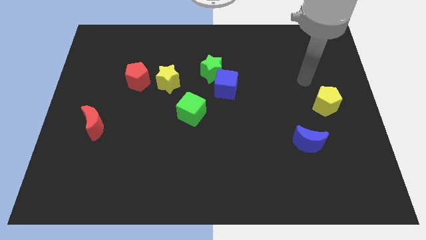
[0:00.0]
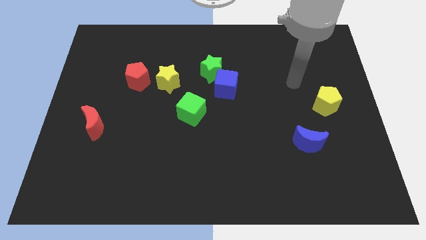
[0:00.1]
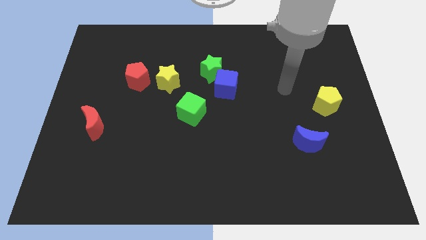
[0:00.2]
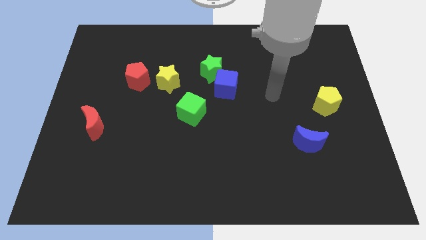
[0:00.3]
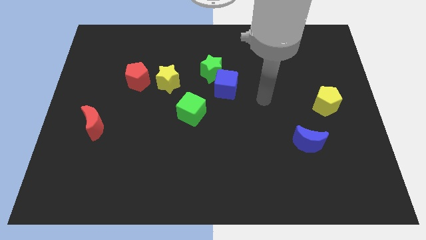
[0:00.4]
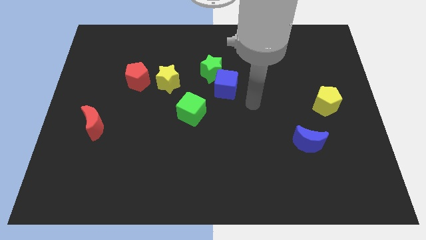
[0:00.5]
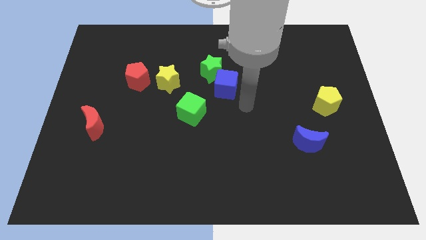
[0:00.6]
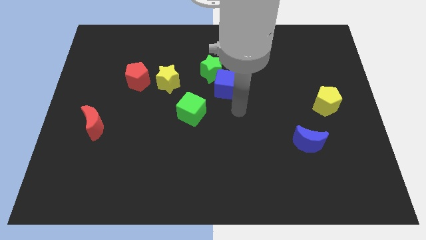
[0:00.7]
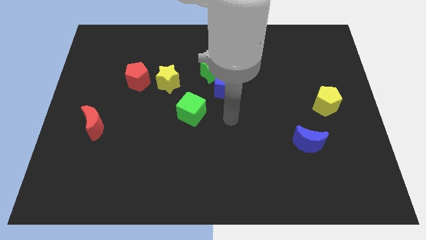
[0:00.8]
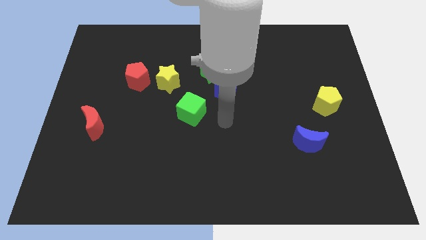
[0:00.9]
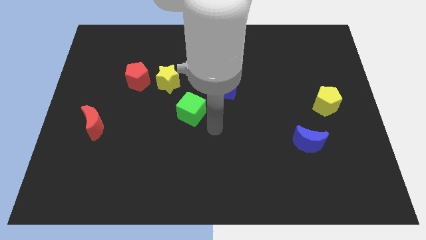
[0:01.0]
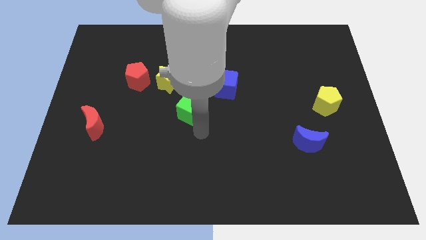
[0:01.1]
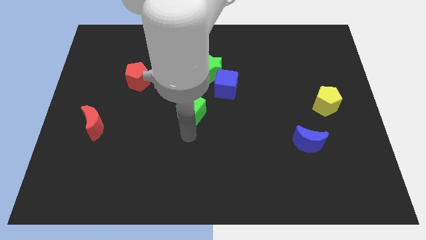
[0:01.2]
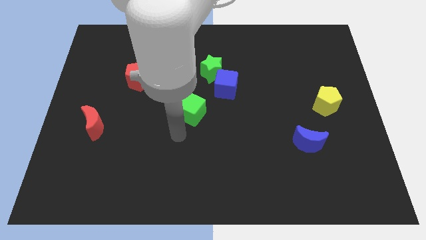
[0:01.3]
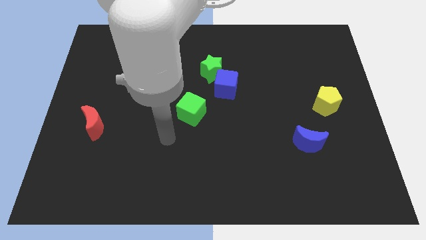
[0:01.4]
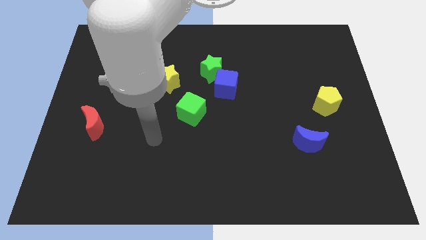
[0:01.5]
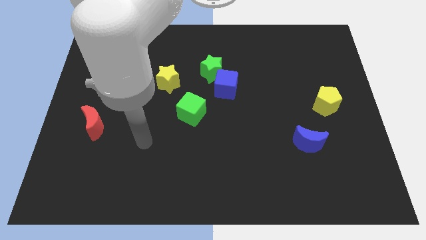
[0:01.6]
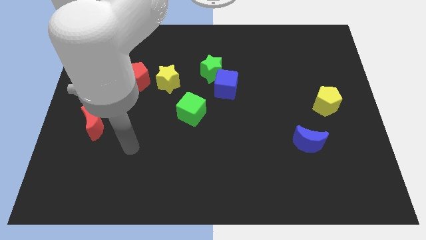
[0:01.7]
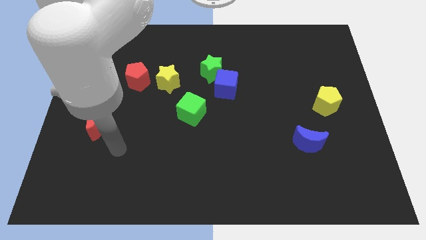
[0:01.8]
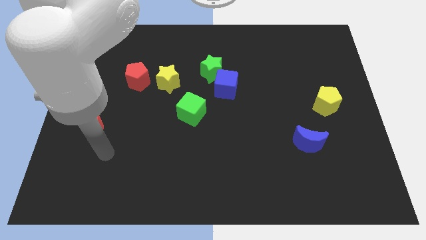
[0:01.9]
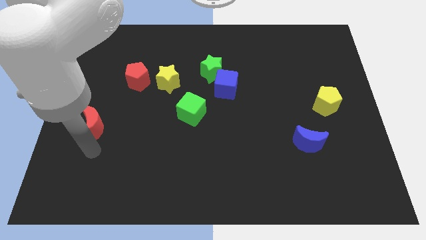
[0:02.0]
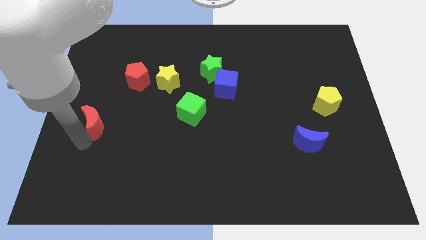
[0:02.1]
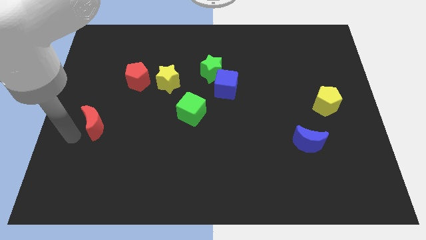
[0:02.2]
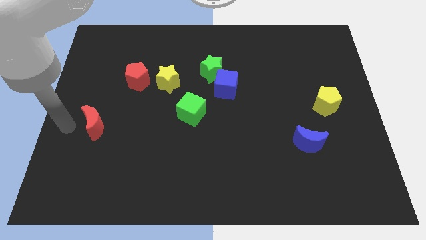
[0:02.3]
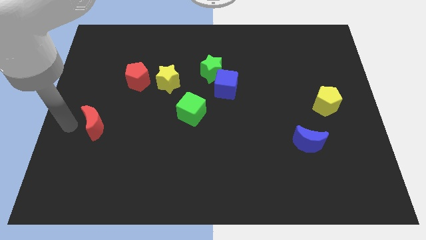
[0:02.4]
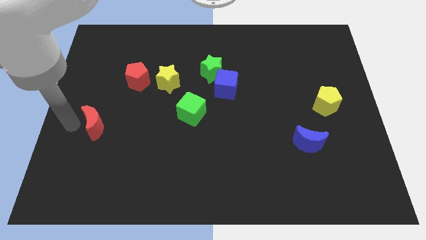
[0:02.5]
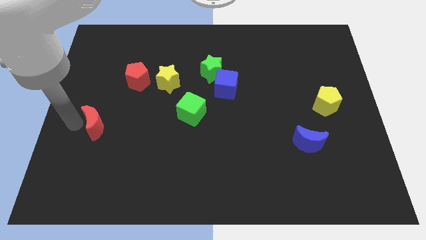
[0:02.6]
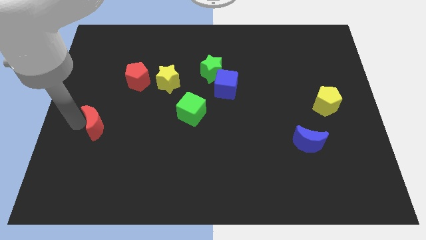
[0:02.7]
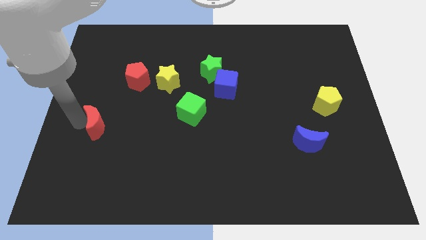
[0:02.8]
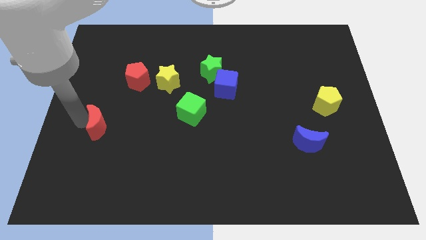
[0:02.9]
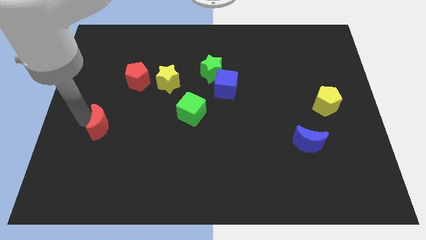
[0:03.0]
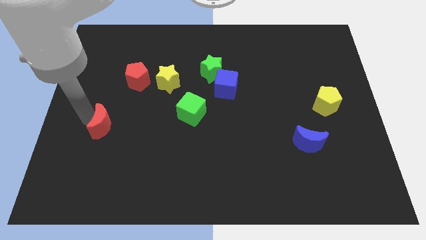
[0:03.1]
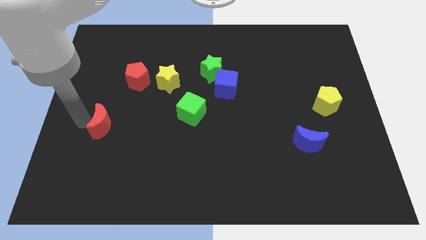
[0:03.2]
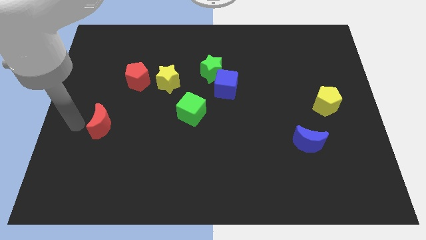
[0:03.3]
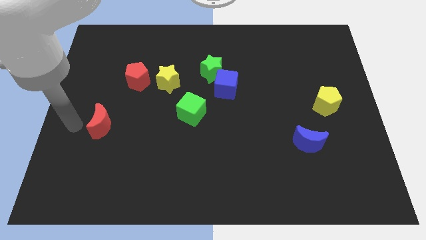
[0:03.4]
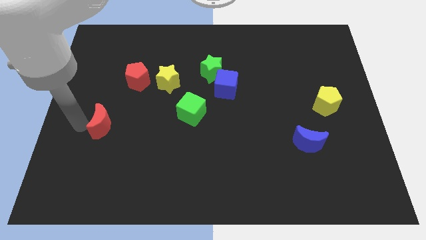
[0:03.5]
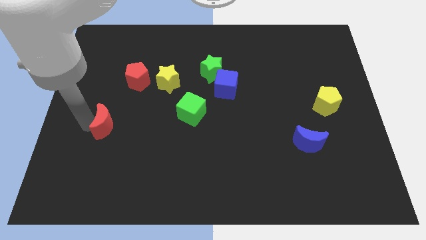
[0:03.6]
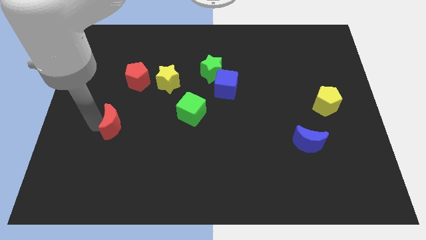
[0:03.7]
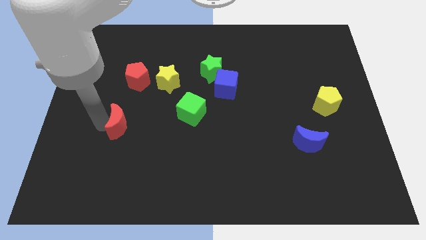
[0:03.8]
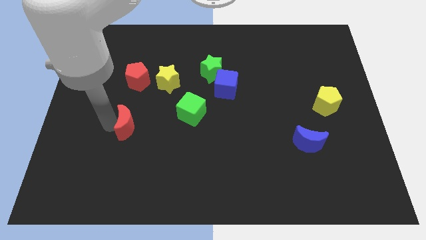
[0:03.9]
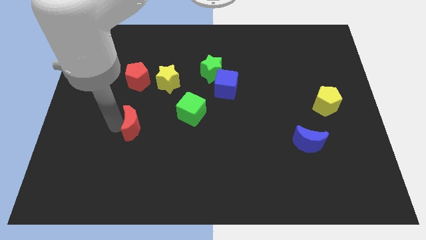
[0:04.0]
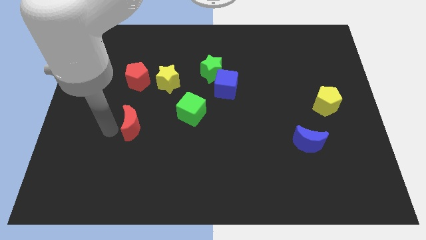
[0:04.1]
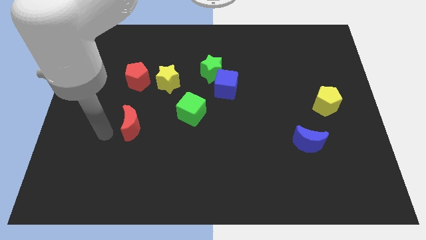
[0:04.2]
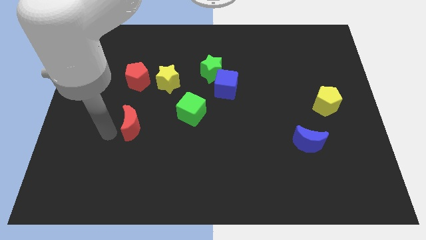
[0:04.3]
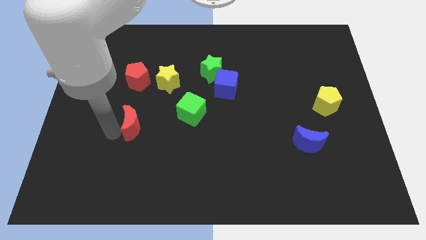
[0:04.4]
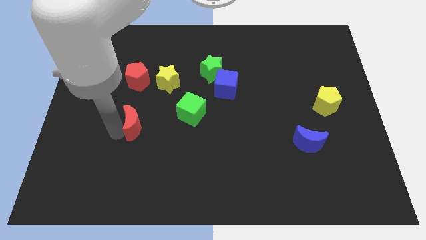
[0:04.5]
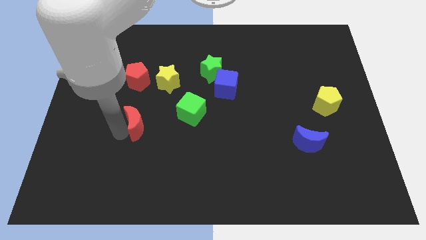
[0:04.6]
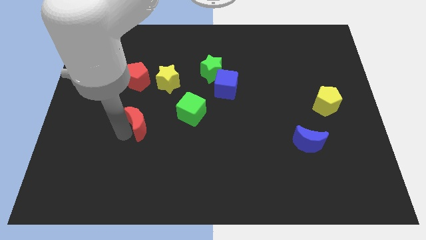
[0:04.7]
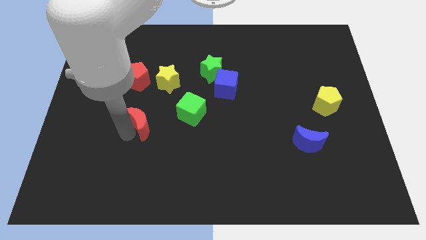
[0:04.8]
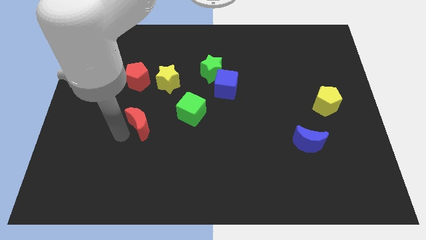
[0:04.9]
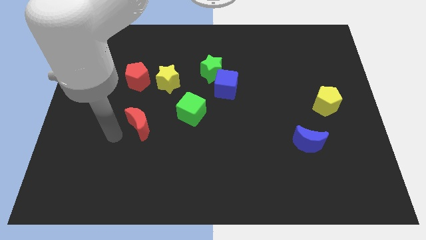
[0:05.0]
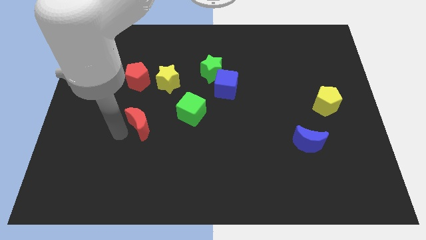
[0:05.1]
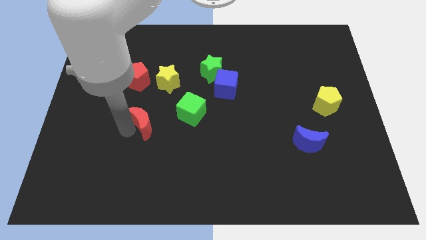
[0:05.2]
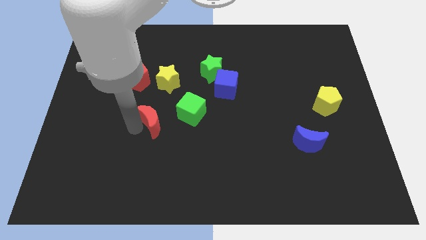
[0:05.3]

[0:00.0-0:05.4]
push the red moon to the bottom side of the yellow star

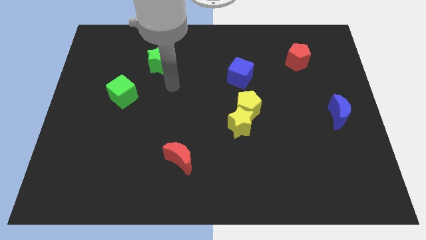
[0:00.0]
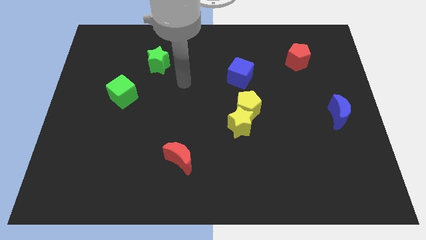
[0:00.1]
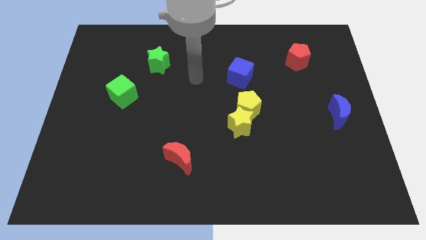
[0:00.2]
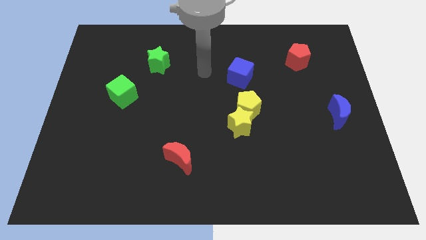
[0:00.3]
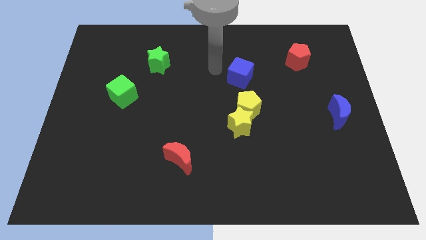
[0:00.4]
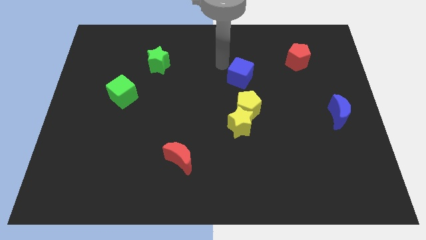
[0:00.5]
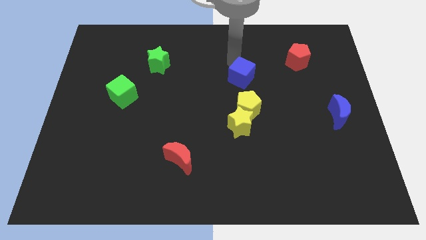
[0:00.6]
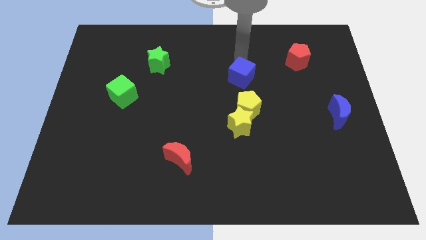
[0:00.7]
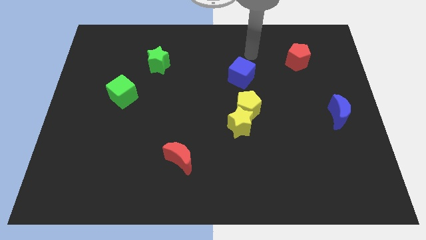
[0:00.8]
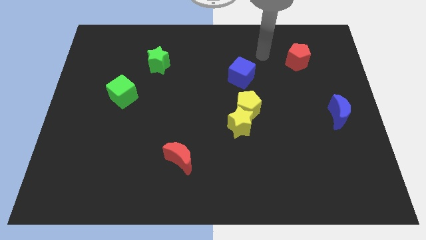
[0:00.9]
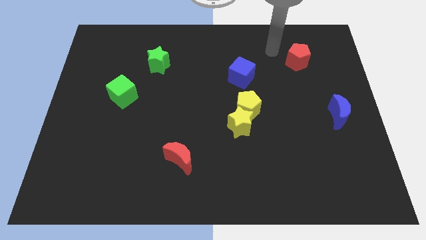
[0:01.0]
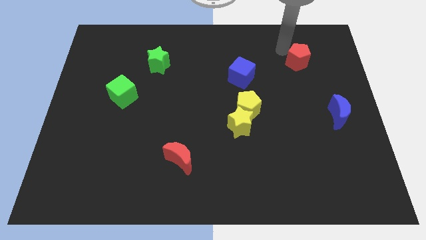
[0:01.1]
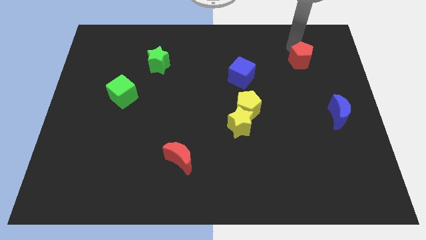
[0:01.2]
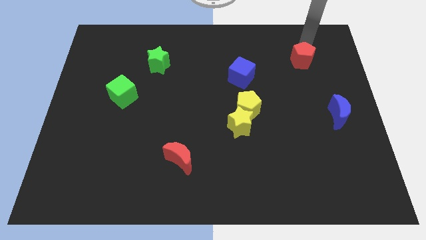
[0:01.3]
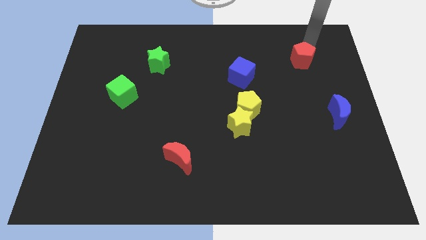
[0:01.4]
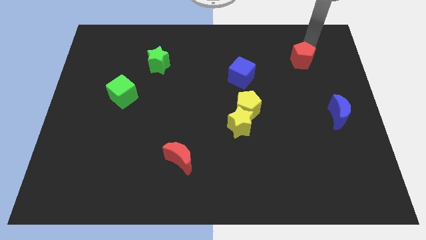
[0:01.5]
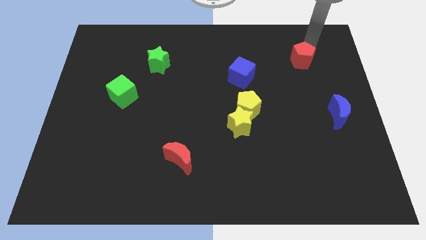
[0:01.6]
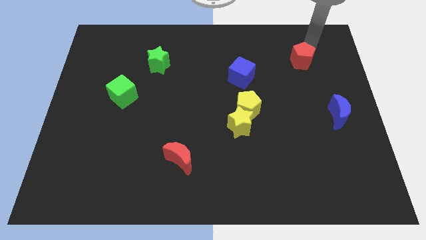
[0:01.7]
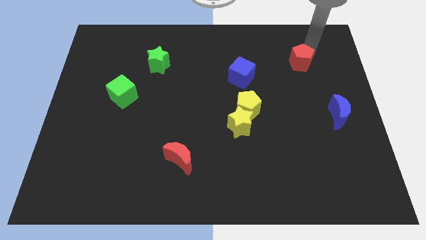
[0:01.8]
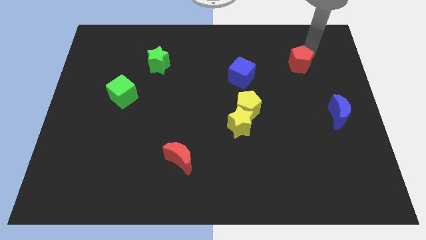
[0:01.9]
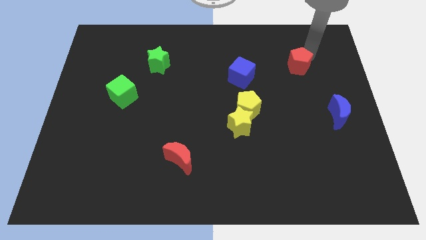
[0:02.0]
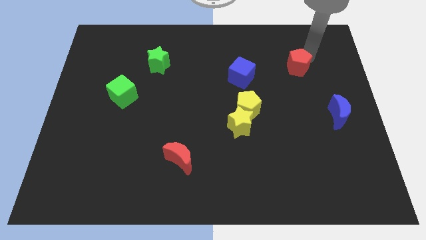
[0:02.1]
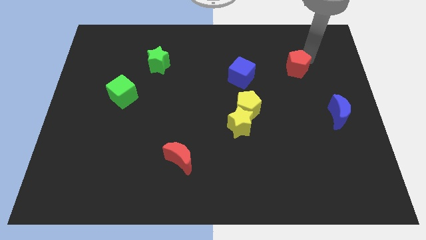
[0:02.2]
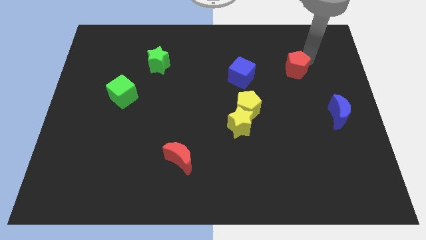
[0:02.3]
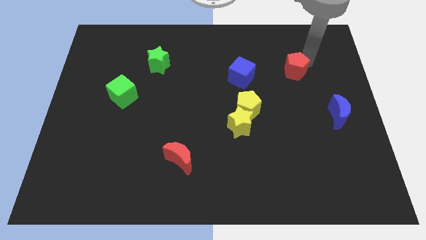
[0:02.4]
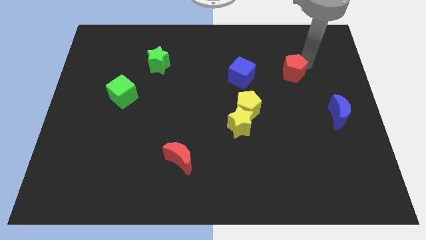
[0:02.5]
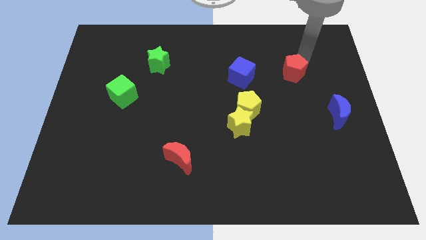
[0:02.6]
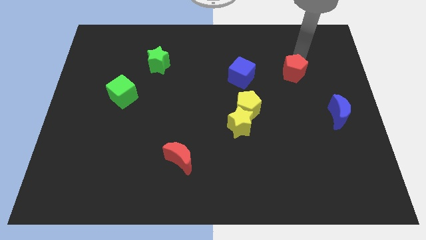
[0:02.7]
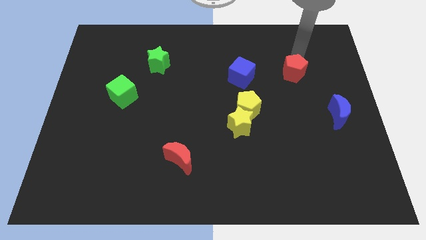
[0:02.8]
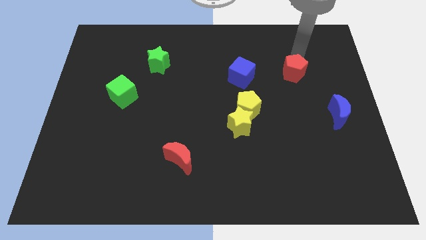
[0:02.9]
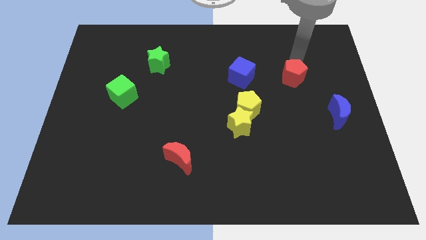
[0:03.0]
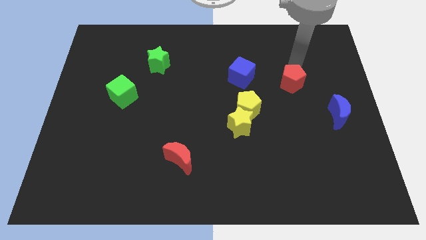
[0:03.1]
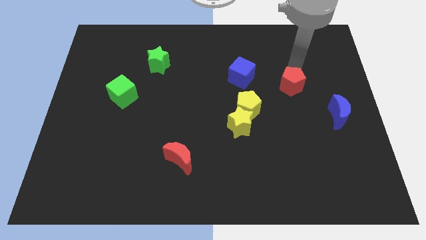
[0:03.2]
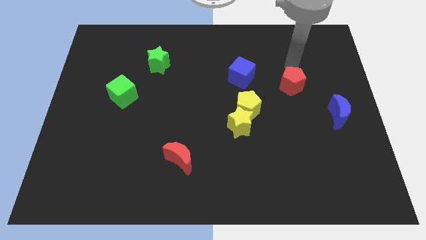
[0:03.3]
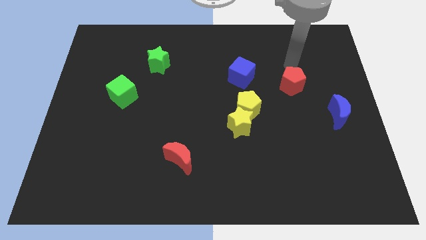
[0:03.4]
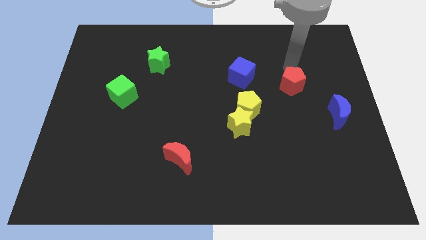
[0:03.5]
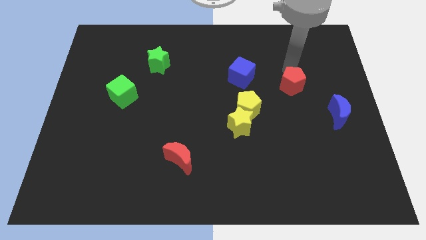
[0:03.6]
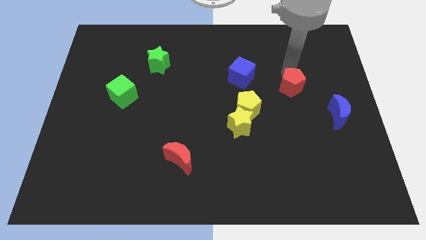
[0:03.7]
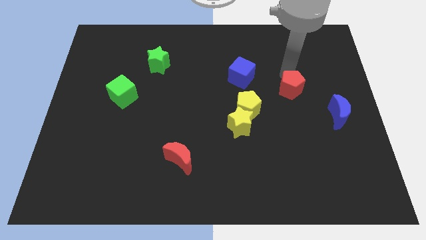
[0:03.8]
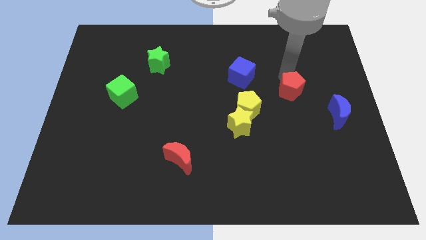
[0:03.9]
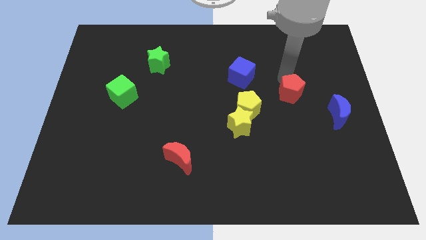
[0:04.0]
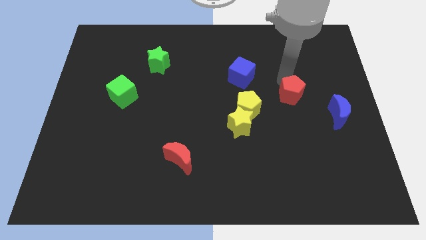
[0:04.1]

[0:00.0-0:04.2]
move the red pentagon to the right side of the yellow pentagon
